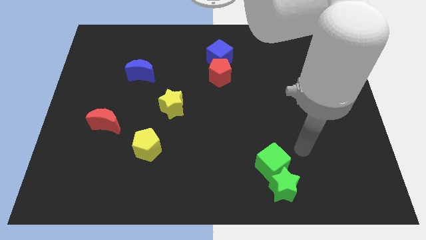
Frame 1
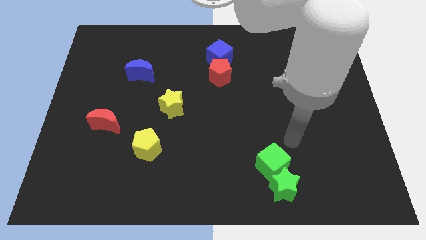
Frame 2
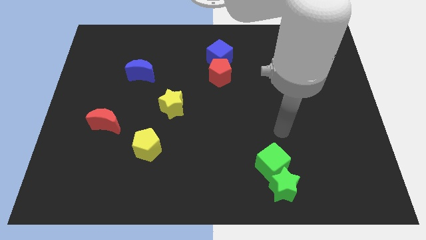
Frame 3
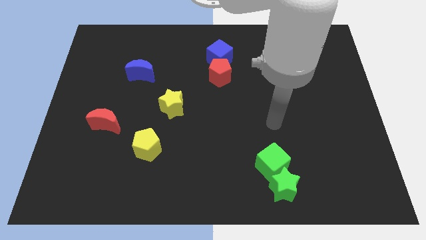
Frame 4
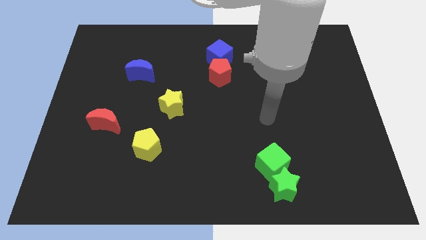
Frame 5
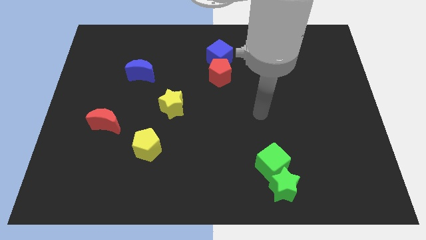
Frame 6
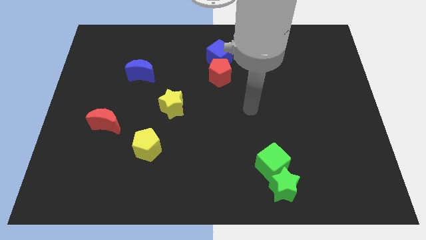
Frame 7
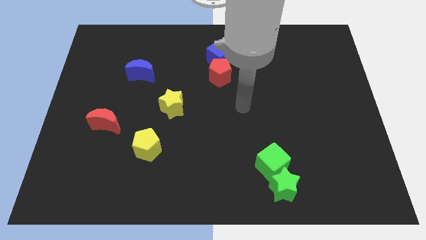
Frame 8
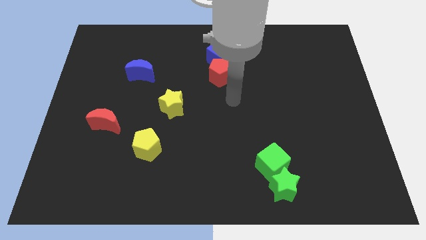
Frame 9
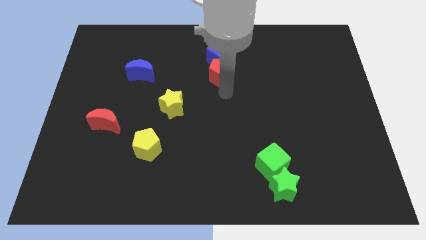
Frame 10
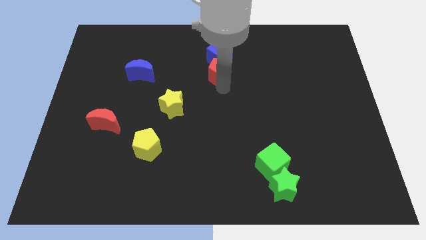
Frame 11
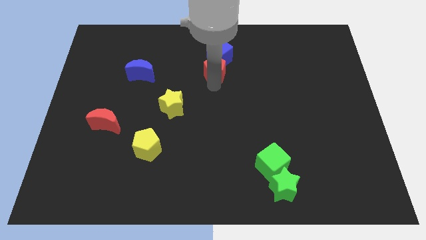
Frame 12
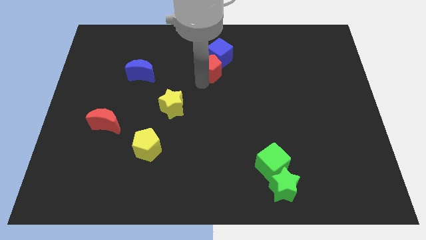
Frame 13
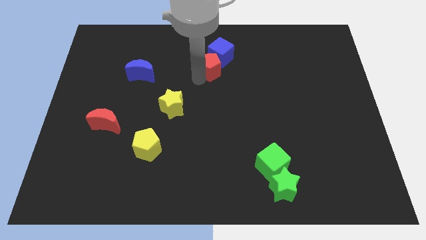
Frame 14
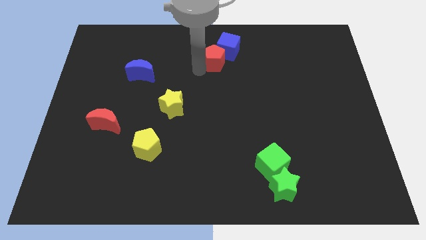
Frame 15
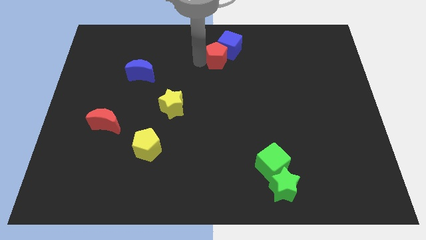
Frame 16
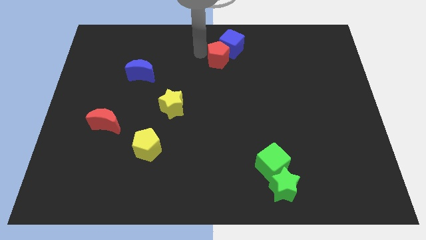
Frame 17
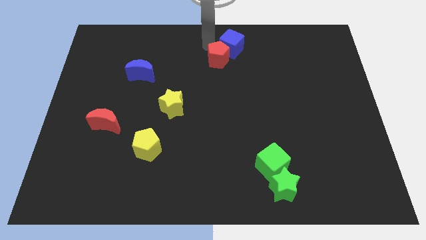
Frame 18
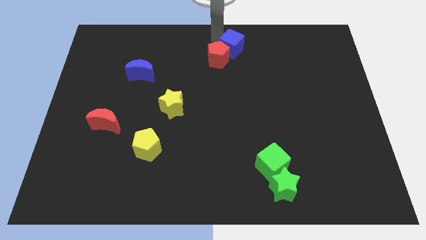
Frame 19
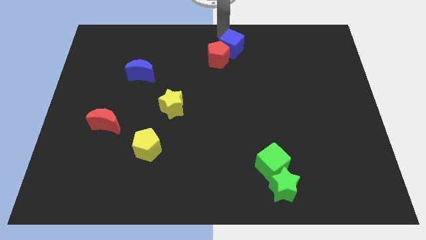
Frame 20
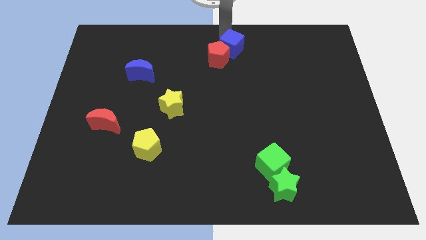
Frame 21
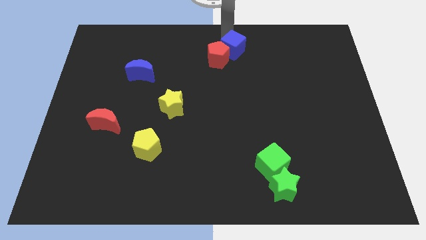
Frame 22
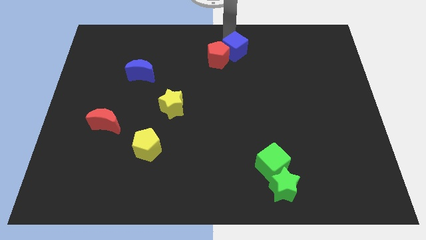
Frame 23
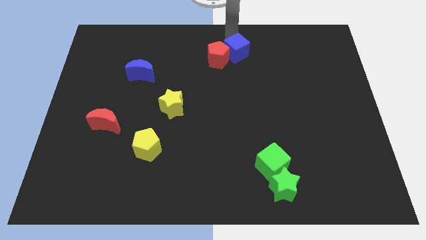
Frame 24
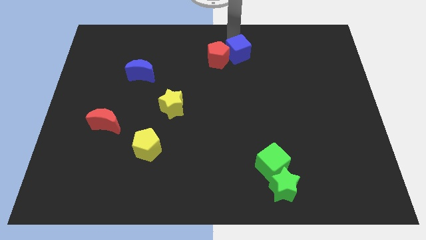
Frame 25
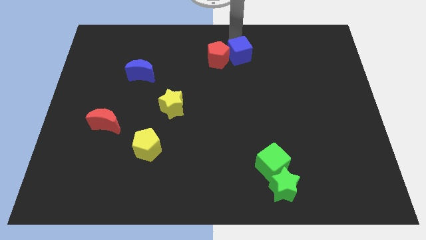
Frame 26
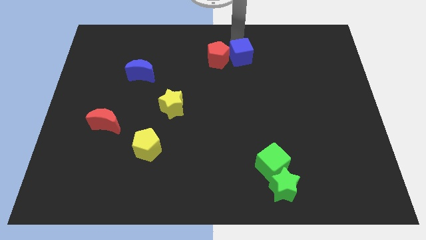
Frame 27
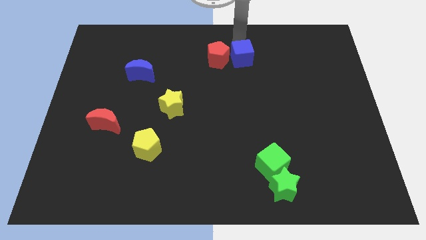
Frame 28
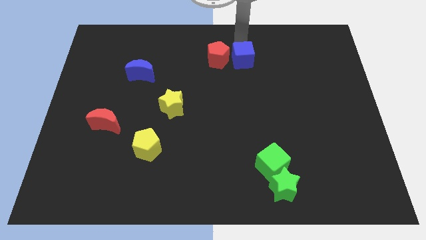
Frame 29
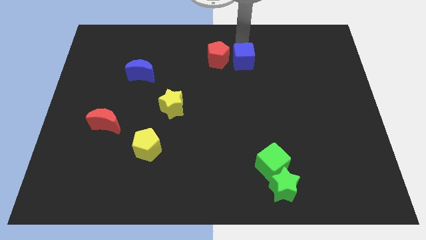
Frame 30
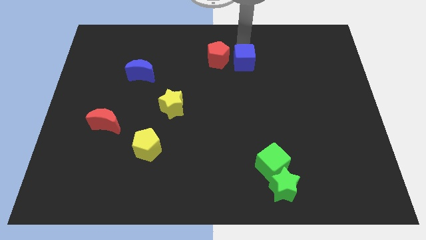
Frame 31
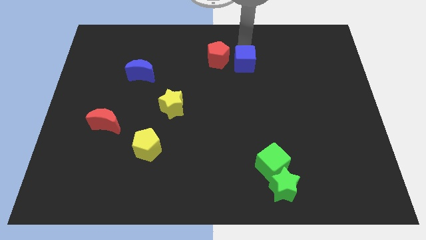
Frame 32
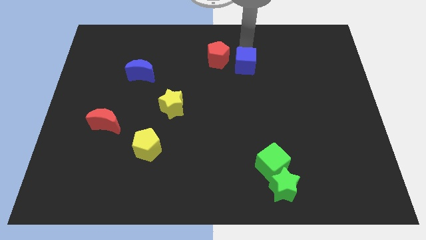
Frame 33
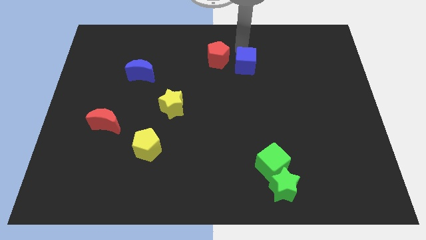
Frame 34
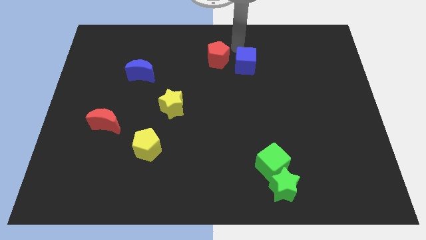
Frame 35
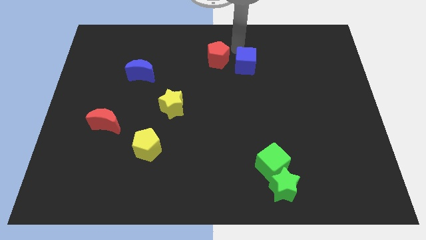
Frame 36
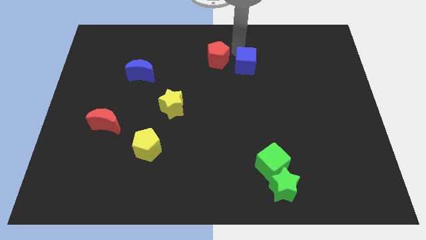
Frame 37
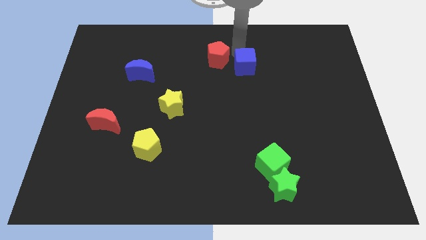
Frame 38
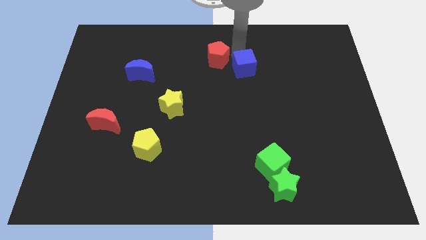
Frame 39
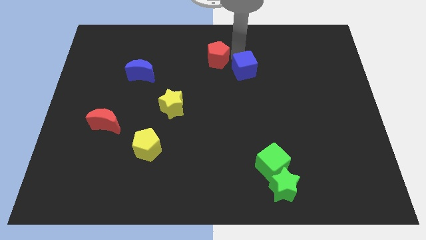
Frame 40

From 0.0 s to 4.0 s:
push the blue cube downwards and right diagonally a bit

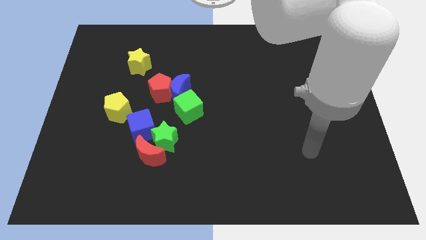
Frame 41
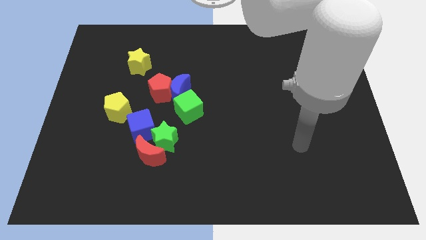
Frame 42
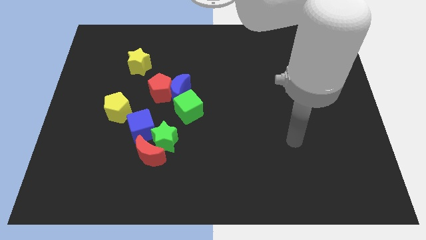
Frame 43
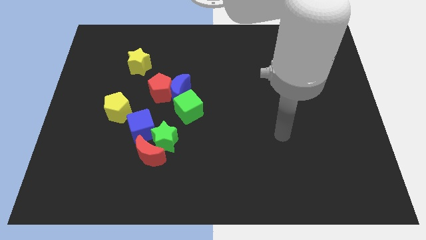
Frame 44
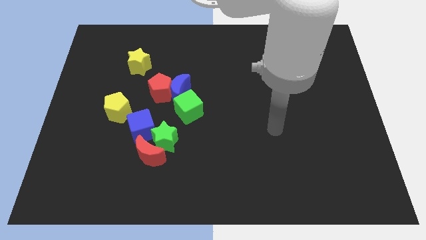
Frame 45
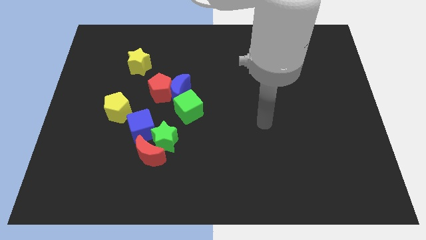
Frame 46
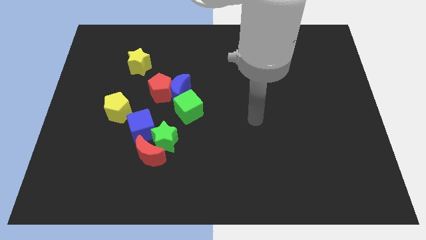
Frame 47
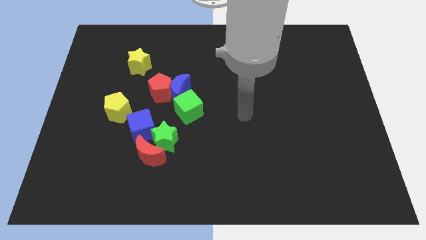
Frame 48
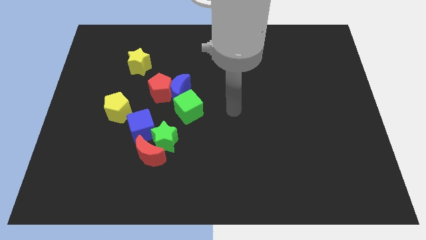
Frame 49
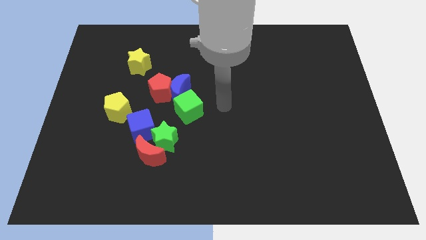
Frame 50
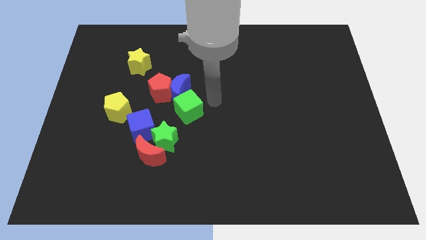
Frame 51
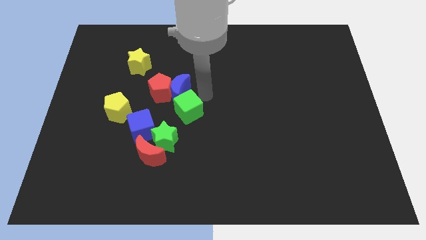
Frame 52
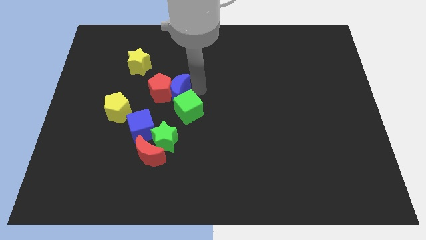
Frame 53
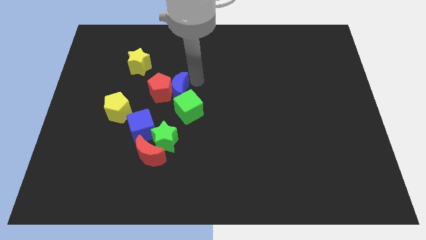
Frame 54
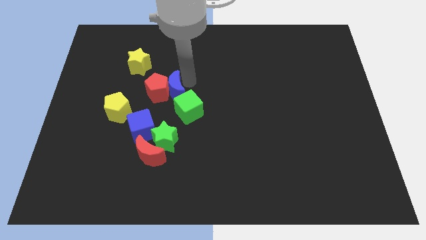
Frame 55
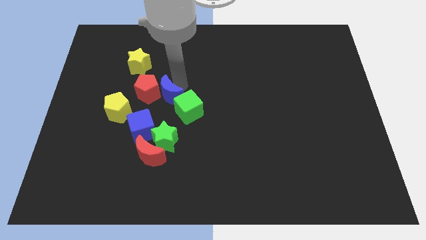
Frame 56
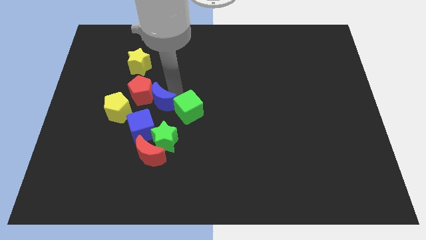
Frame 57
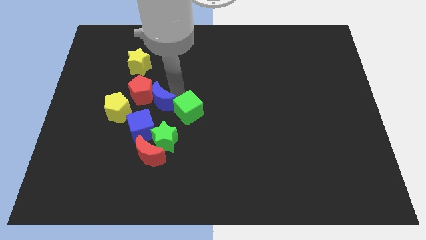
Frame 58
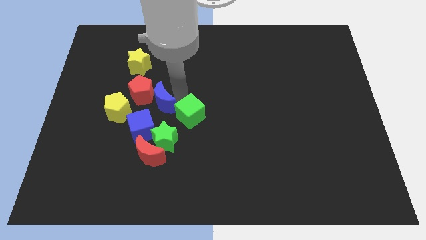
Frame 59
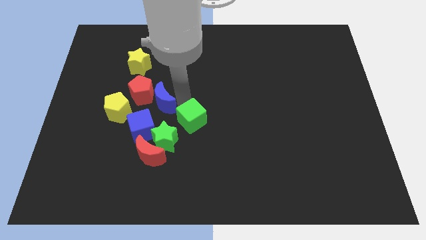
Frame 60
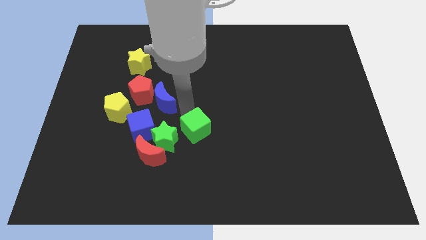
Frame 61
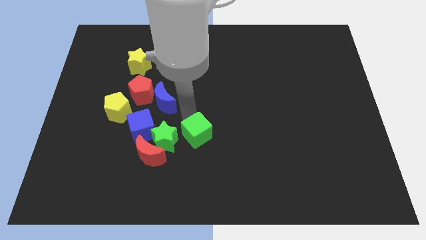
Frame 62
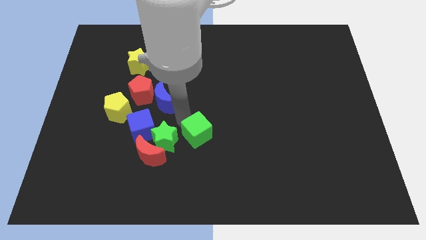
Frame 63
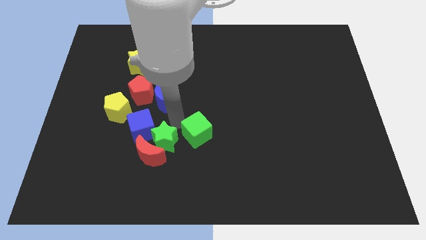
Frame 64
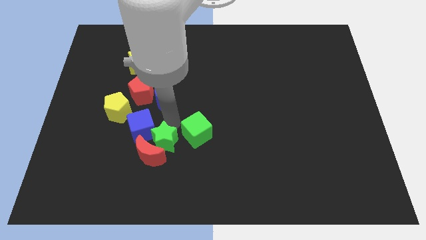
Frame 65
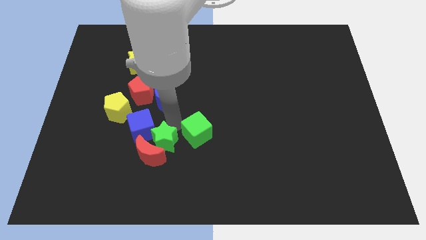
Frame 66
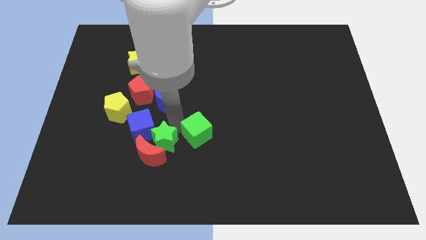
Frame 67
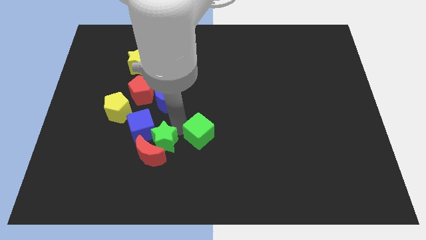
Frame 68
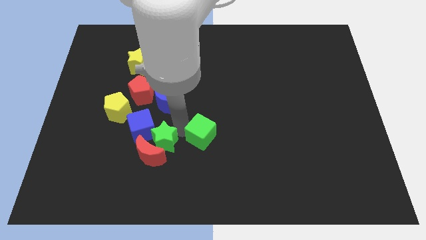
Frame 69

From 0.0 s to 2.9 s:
slightly move the green cube downwards and right

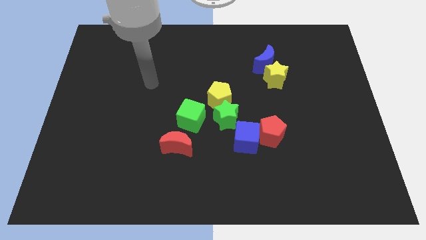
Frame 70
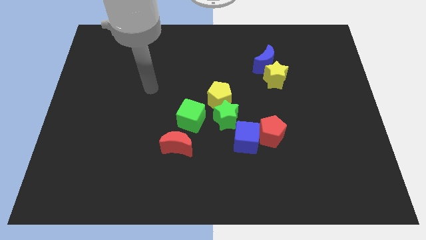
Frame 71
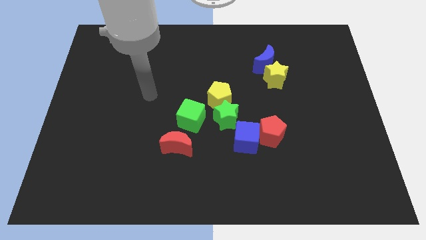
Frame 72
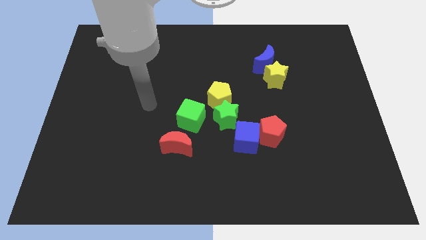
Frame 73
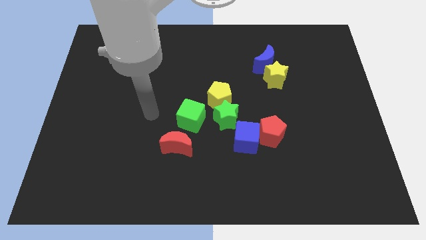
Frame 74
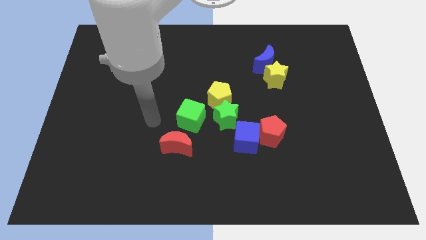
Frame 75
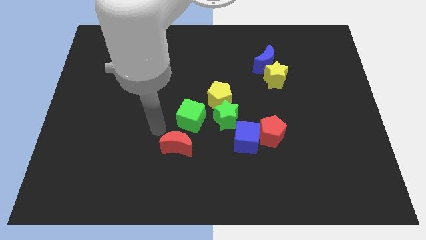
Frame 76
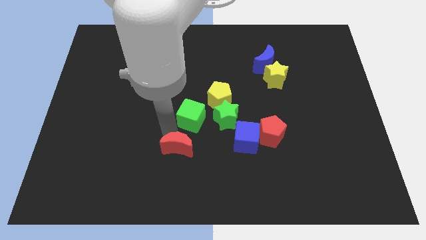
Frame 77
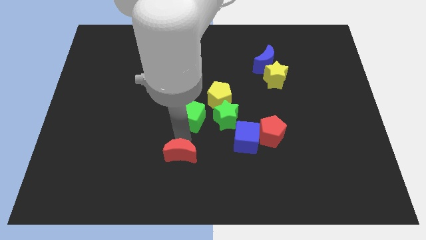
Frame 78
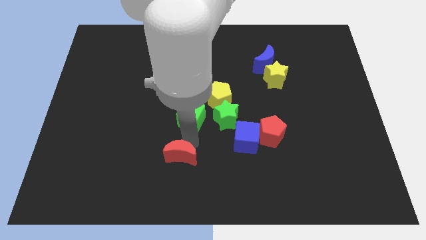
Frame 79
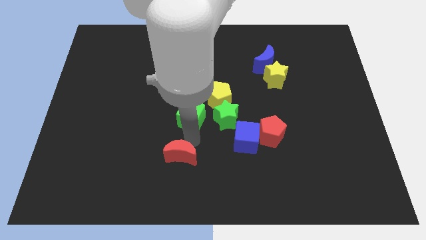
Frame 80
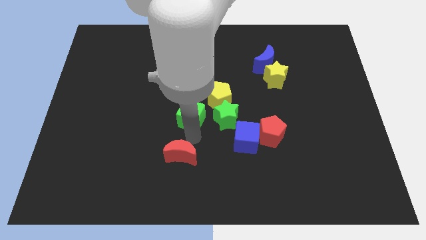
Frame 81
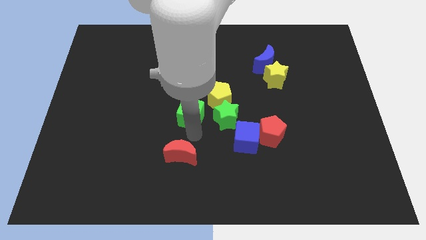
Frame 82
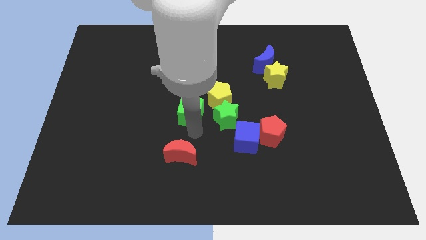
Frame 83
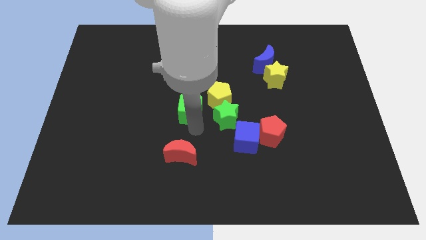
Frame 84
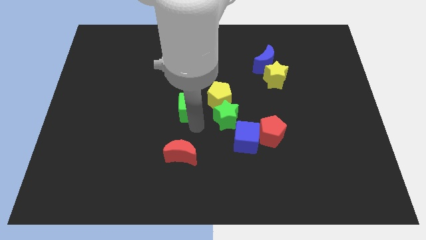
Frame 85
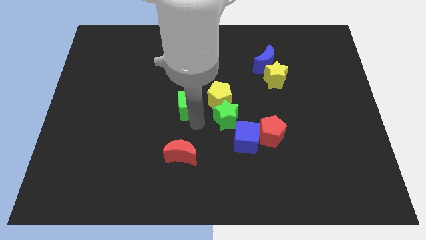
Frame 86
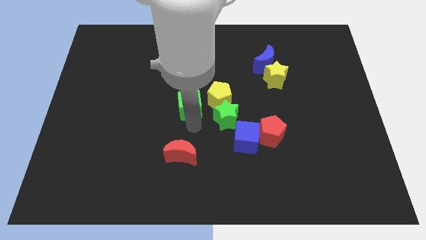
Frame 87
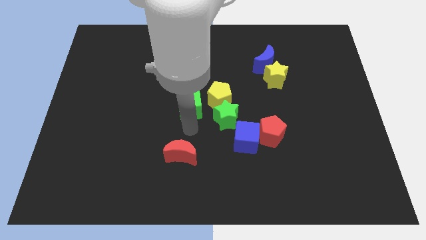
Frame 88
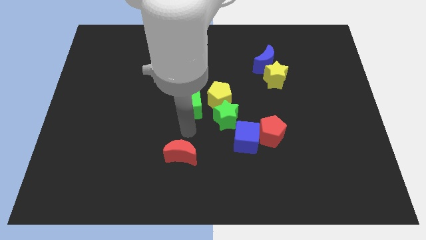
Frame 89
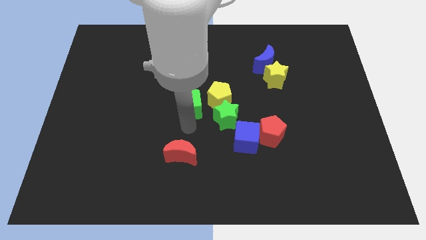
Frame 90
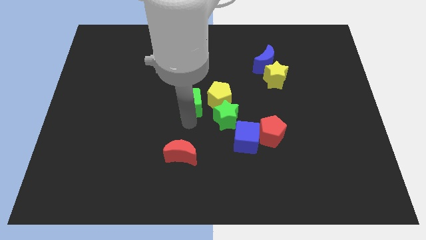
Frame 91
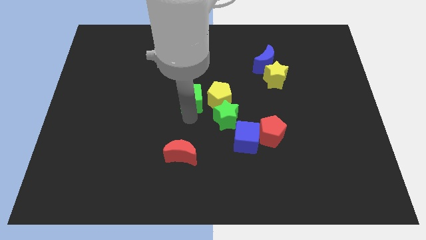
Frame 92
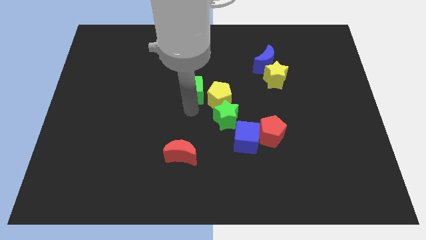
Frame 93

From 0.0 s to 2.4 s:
slide the green cube upwards a little bit
